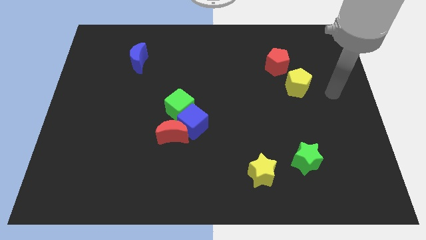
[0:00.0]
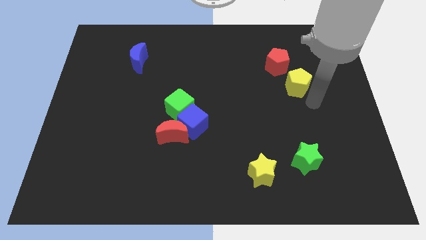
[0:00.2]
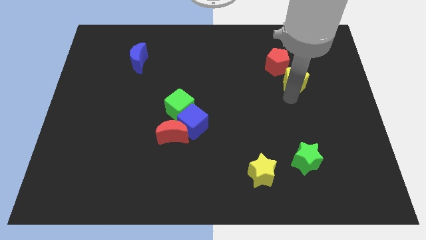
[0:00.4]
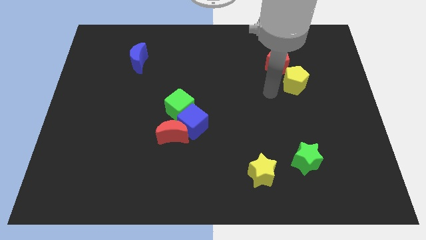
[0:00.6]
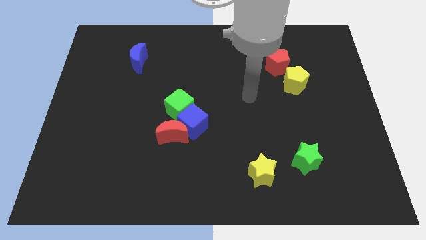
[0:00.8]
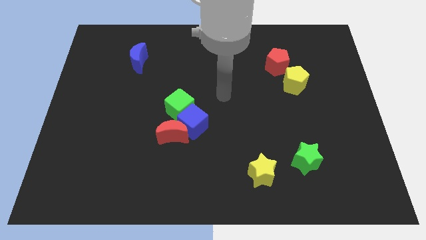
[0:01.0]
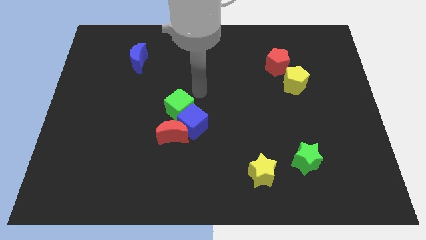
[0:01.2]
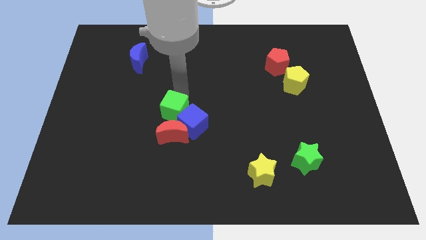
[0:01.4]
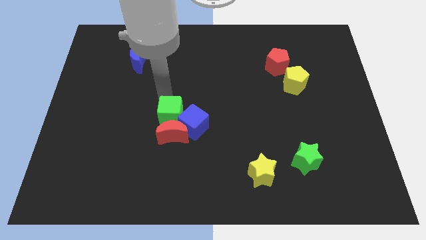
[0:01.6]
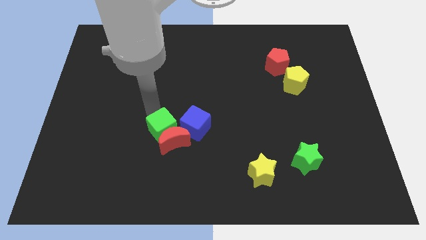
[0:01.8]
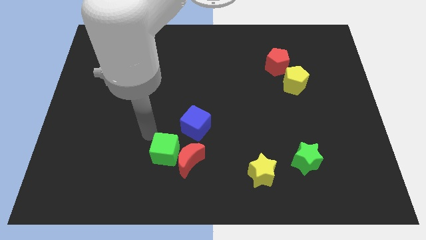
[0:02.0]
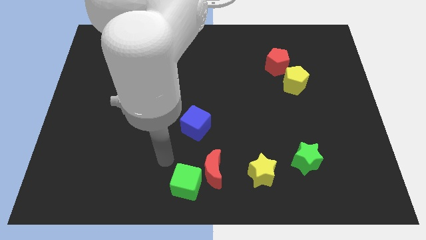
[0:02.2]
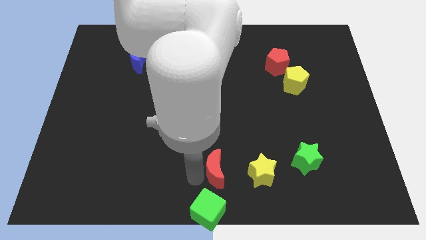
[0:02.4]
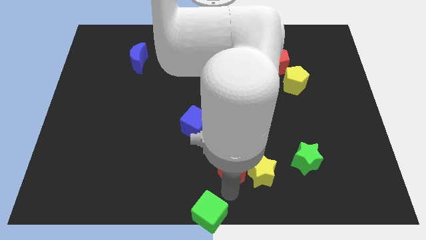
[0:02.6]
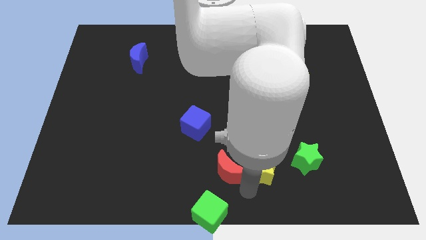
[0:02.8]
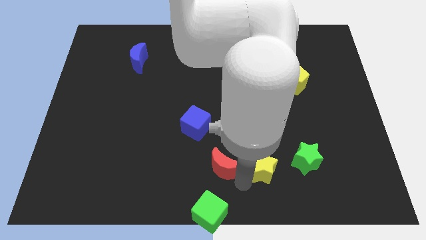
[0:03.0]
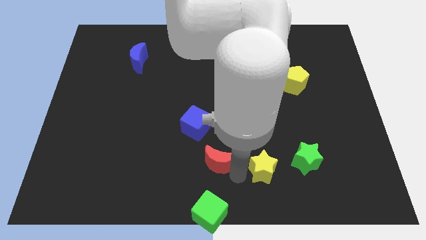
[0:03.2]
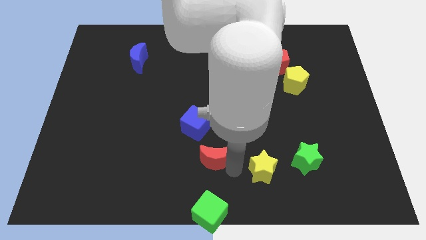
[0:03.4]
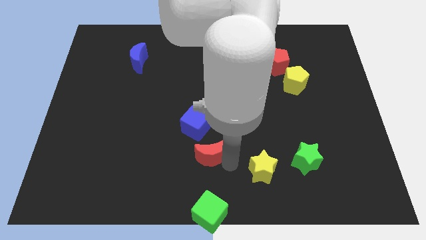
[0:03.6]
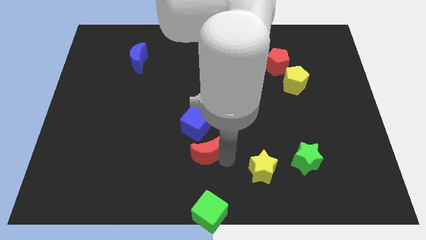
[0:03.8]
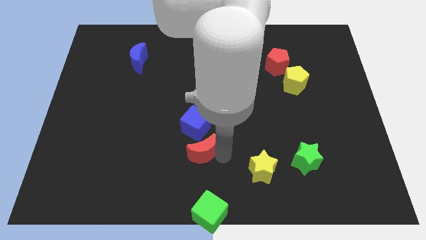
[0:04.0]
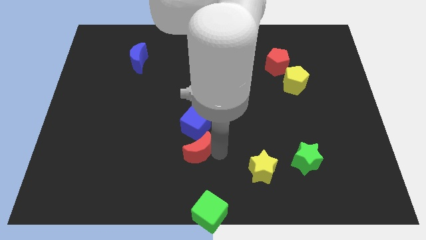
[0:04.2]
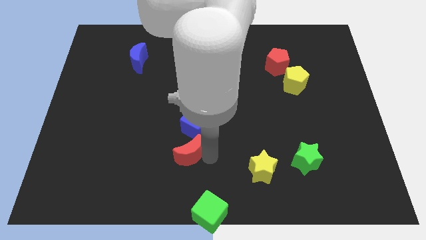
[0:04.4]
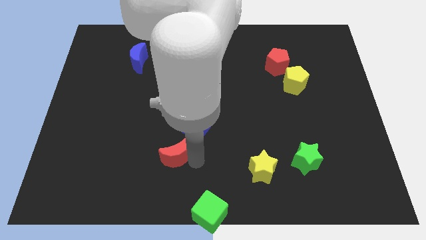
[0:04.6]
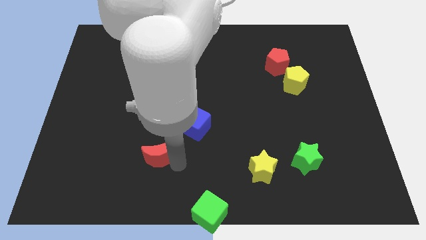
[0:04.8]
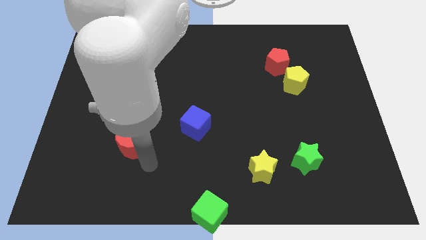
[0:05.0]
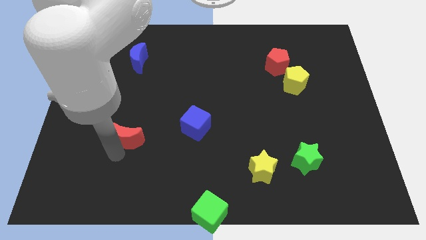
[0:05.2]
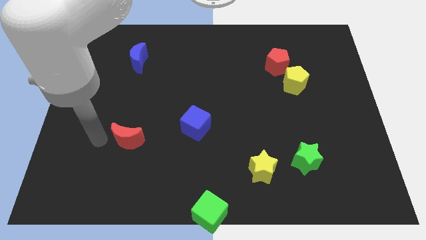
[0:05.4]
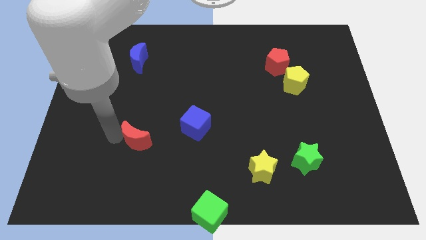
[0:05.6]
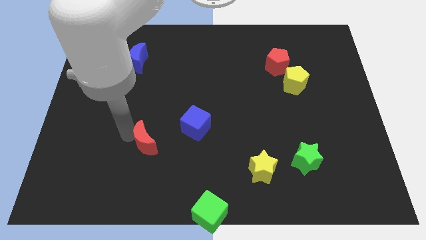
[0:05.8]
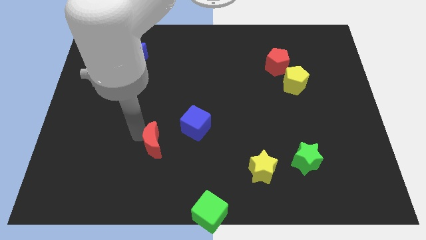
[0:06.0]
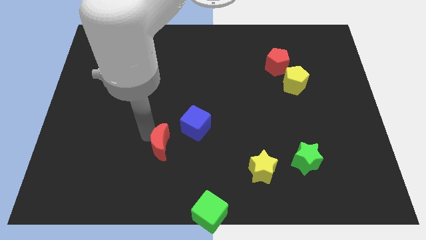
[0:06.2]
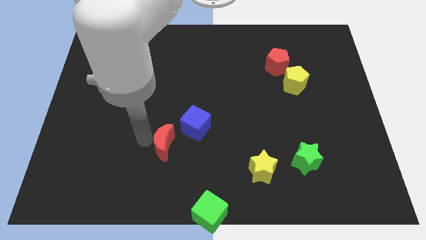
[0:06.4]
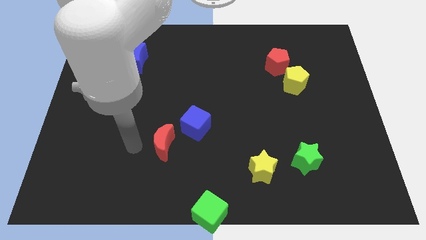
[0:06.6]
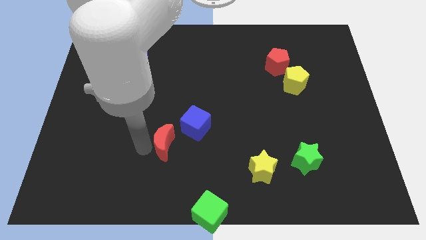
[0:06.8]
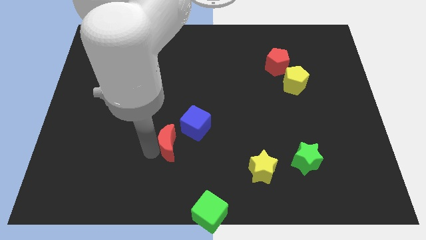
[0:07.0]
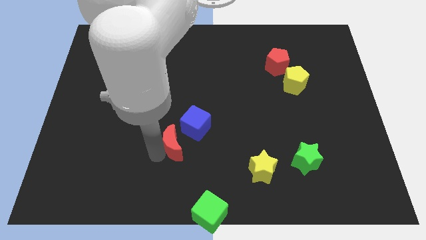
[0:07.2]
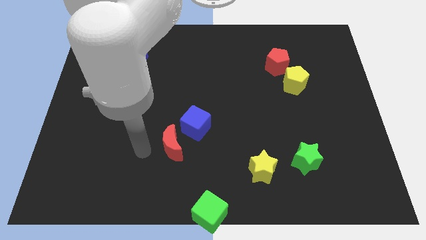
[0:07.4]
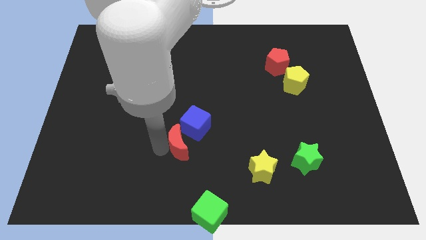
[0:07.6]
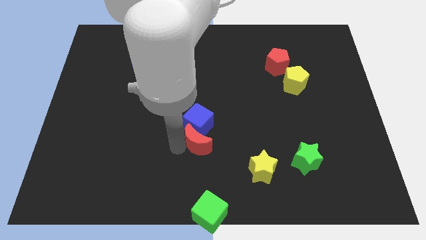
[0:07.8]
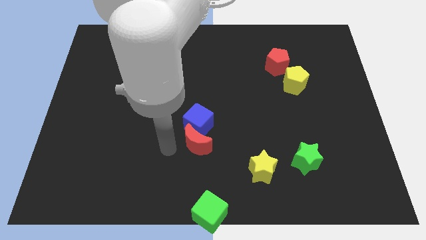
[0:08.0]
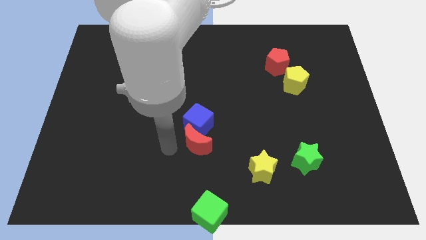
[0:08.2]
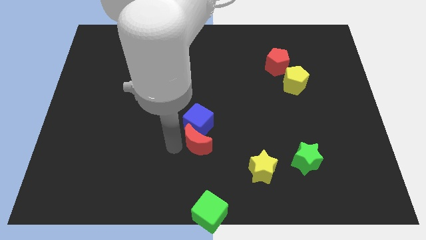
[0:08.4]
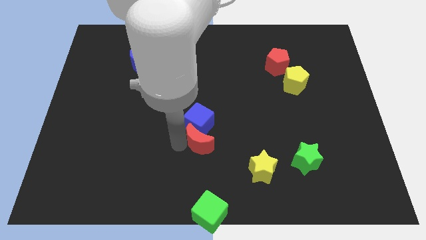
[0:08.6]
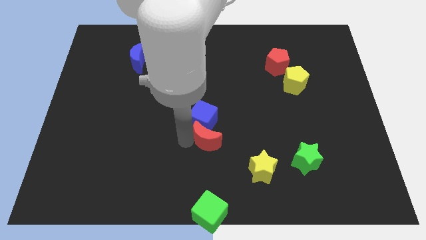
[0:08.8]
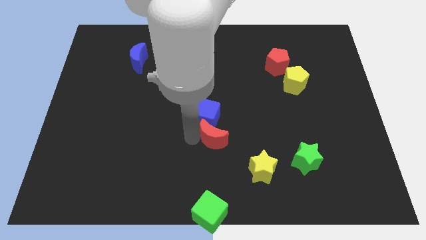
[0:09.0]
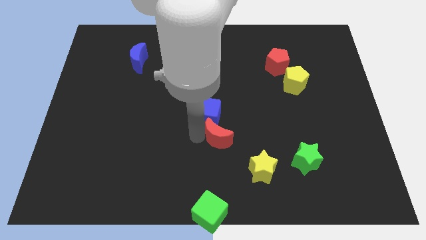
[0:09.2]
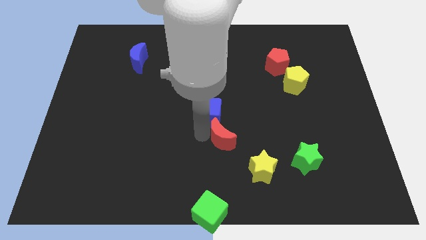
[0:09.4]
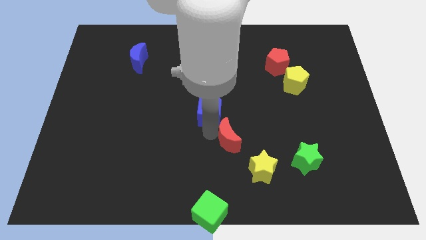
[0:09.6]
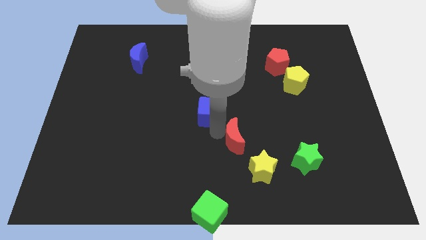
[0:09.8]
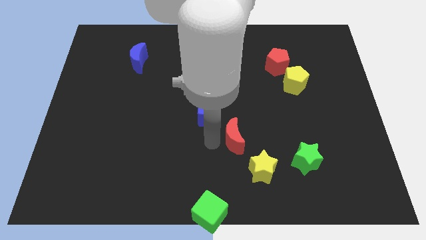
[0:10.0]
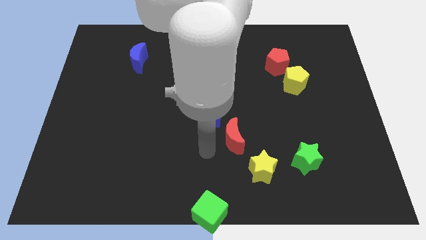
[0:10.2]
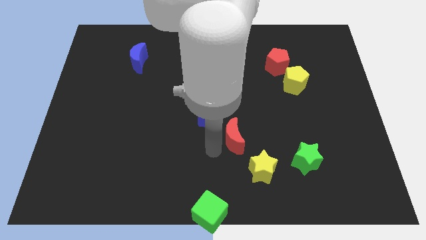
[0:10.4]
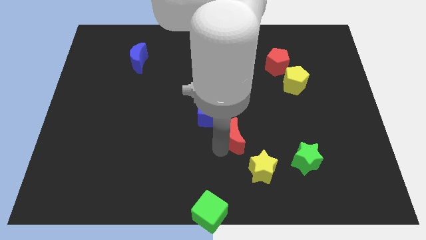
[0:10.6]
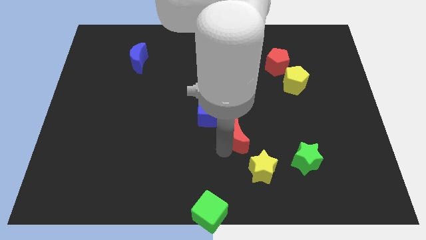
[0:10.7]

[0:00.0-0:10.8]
push the red moon to the top of the yellow star

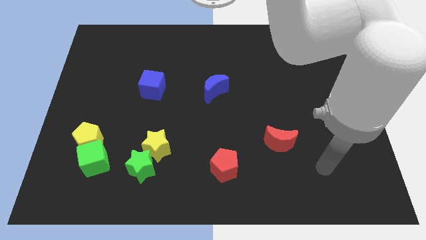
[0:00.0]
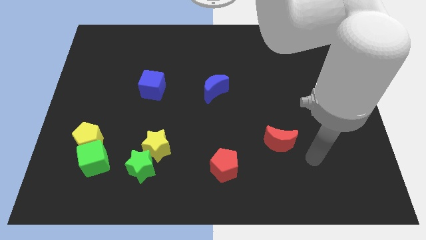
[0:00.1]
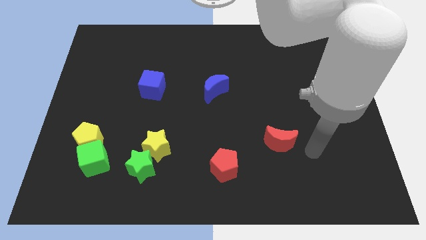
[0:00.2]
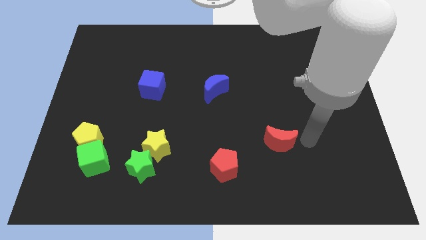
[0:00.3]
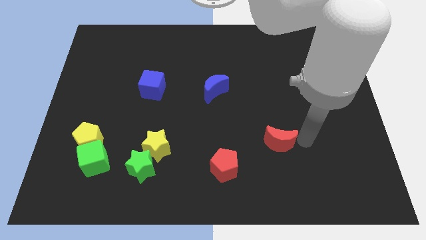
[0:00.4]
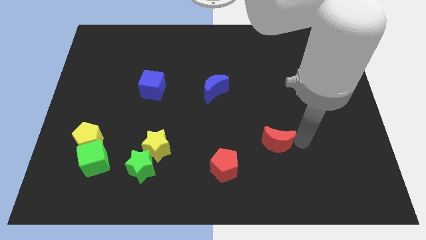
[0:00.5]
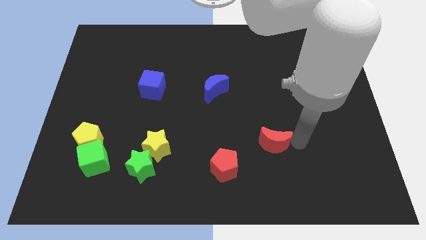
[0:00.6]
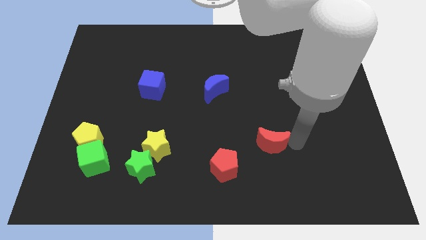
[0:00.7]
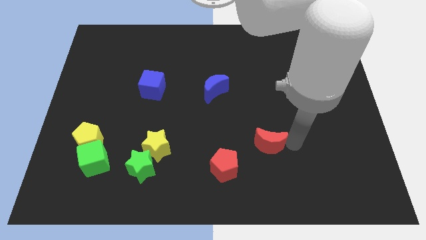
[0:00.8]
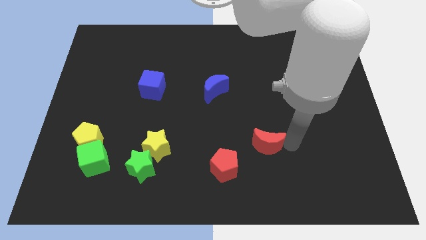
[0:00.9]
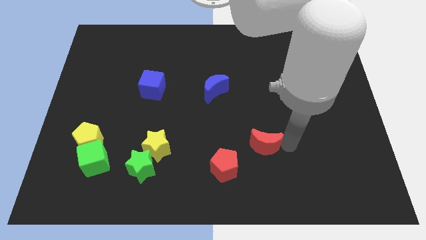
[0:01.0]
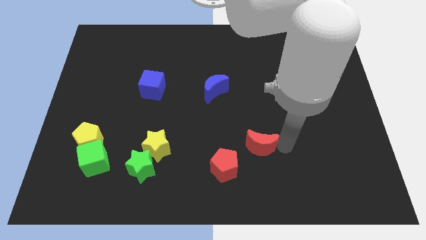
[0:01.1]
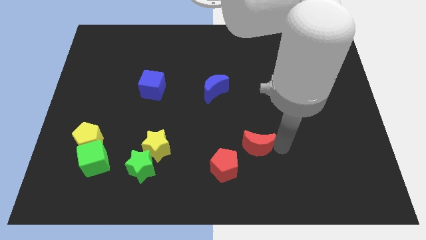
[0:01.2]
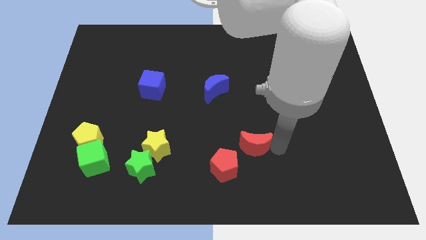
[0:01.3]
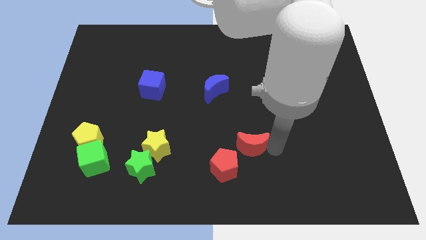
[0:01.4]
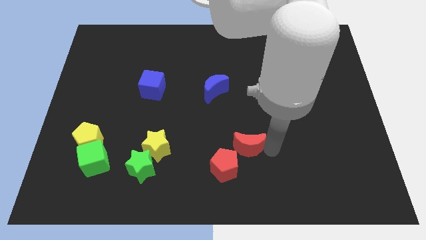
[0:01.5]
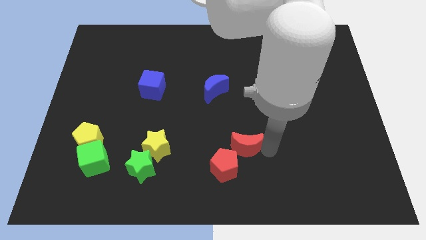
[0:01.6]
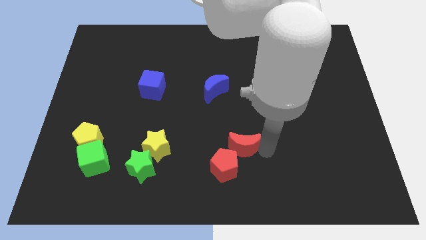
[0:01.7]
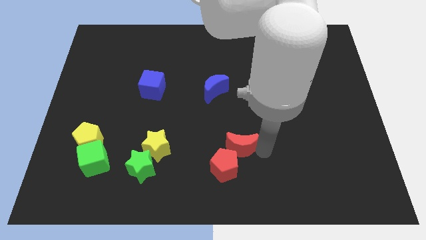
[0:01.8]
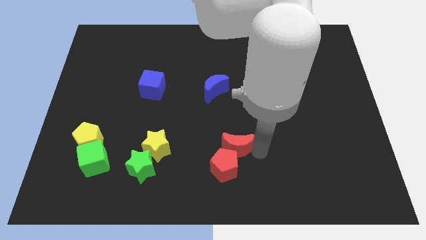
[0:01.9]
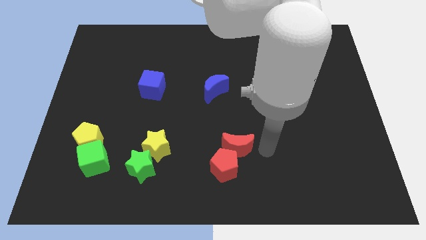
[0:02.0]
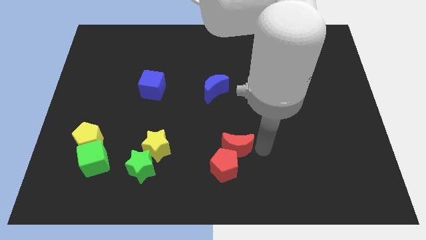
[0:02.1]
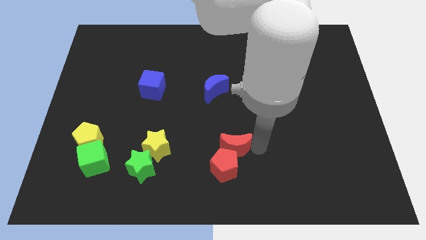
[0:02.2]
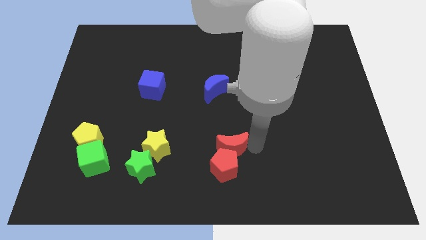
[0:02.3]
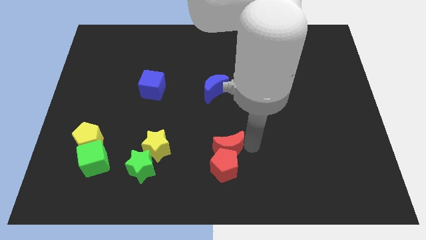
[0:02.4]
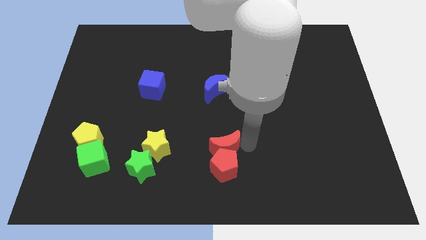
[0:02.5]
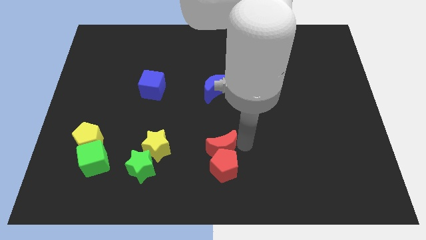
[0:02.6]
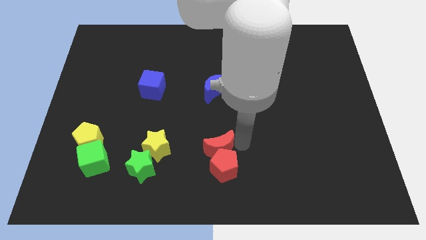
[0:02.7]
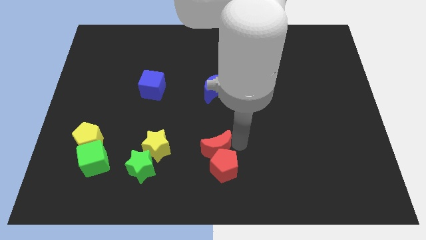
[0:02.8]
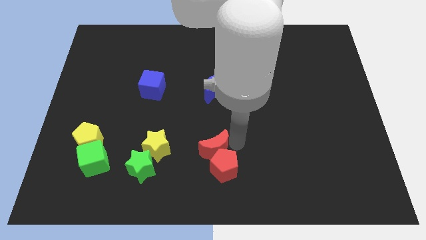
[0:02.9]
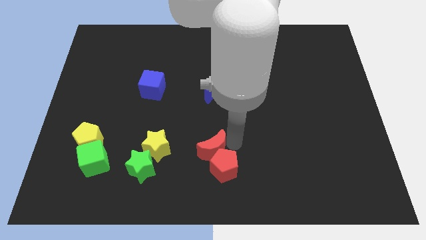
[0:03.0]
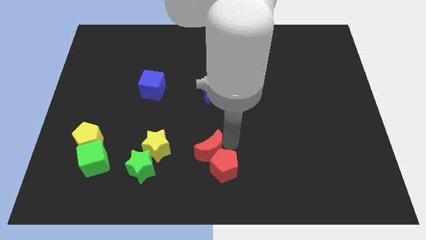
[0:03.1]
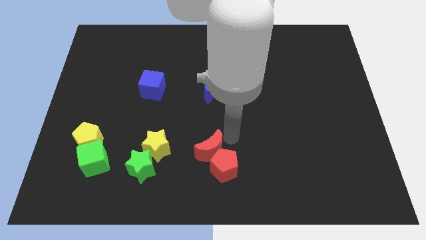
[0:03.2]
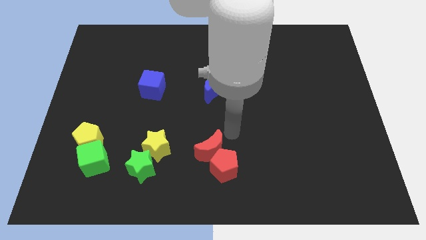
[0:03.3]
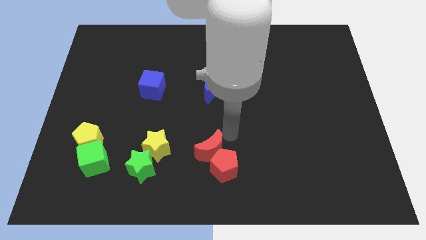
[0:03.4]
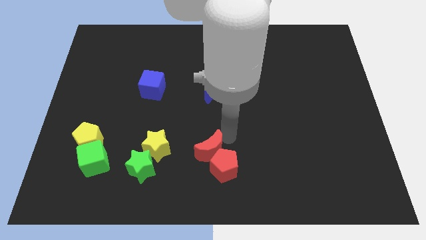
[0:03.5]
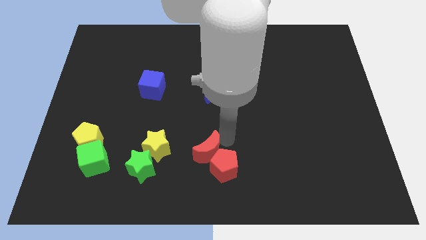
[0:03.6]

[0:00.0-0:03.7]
move the red moon right of the green star
